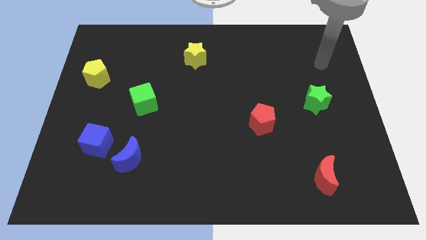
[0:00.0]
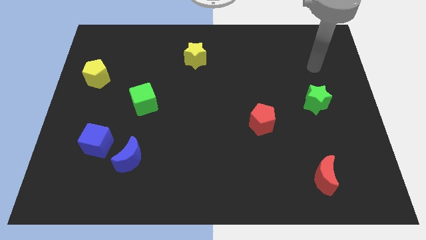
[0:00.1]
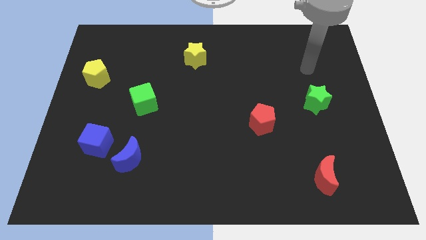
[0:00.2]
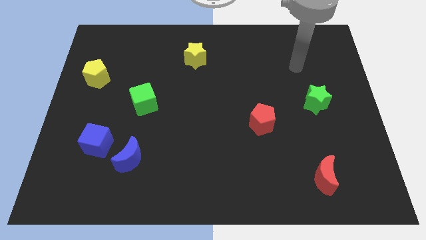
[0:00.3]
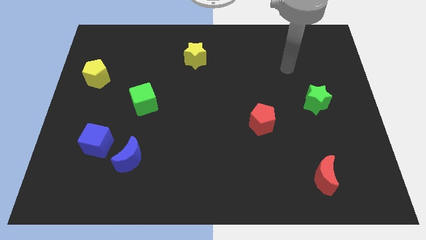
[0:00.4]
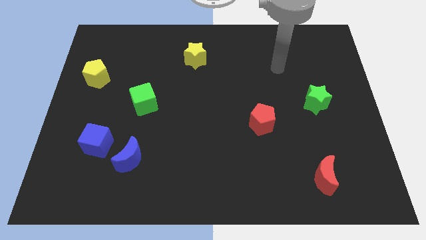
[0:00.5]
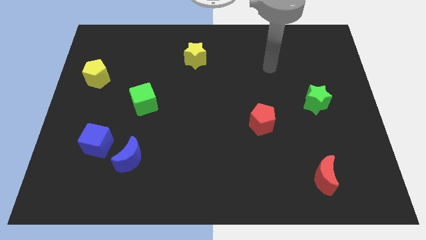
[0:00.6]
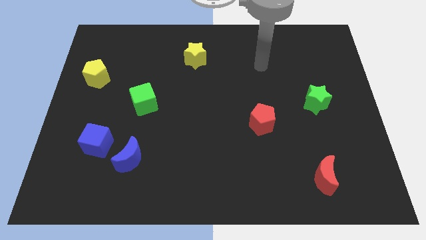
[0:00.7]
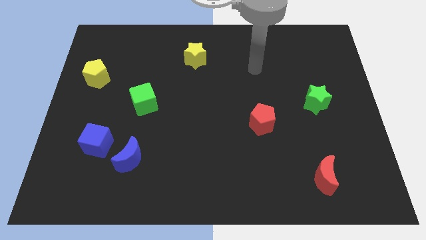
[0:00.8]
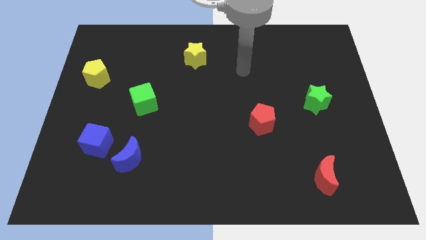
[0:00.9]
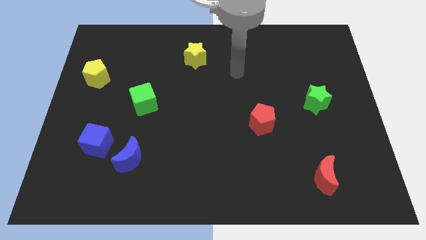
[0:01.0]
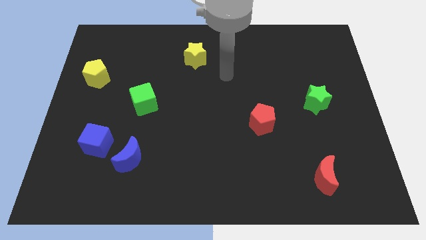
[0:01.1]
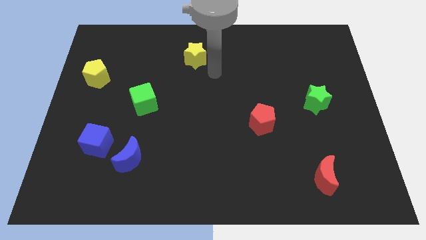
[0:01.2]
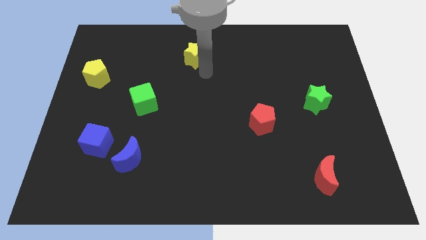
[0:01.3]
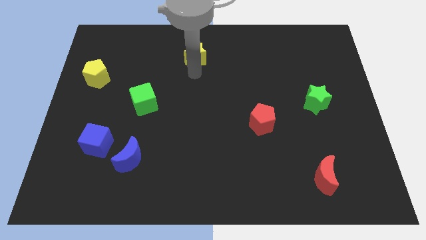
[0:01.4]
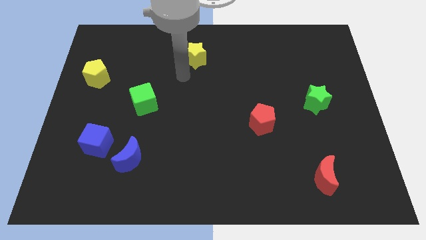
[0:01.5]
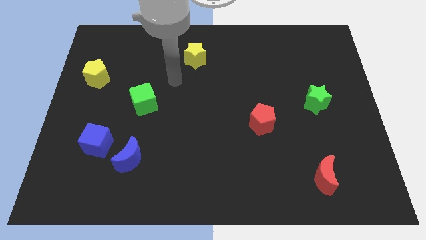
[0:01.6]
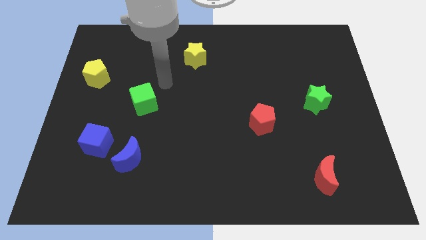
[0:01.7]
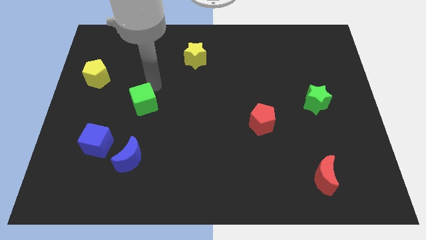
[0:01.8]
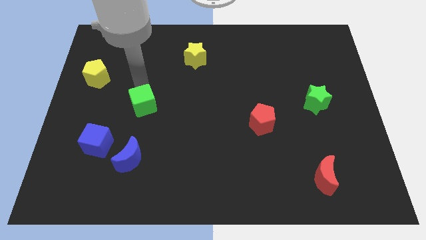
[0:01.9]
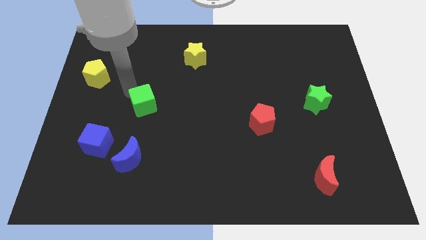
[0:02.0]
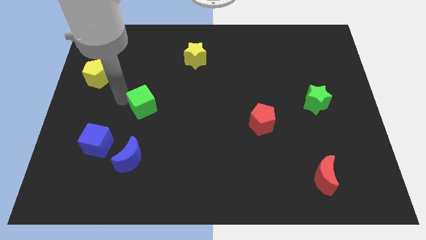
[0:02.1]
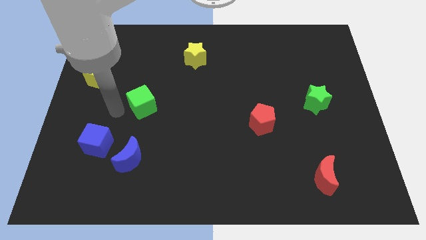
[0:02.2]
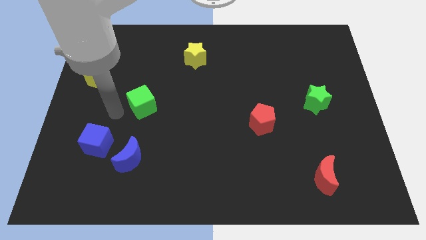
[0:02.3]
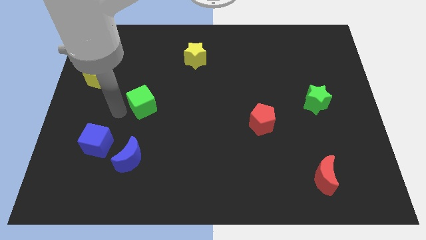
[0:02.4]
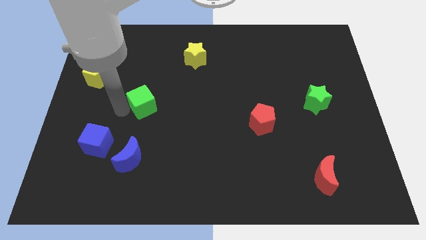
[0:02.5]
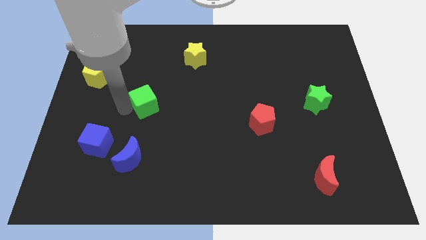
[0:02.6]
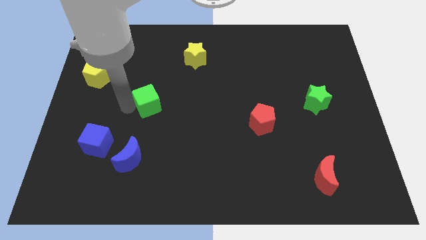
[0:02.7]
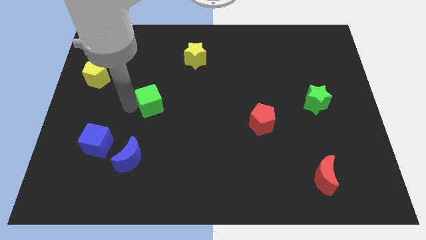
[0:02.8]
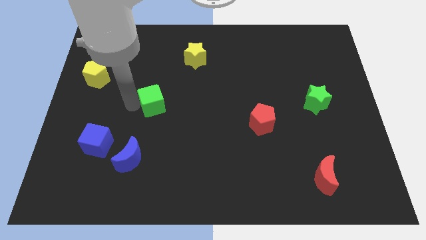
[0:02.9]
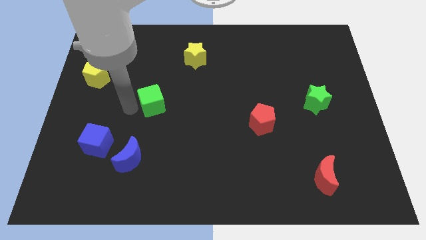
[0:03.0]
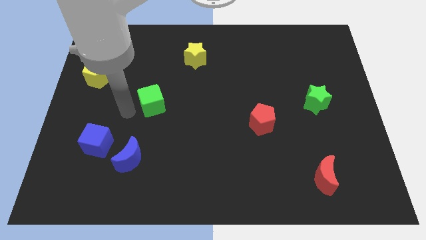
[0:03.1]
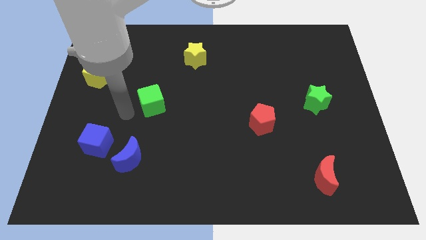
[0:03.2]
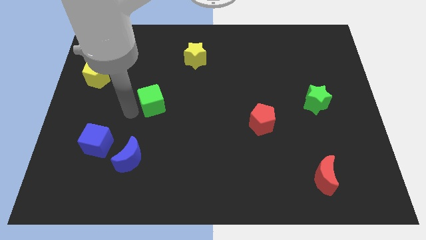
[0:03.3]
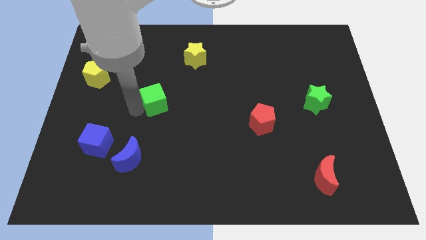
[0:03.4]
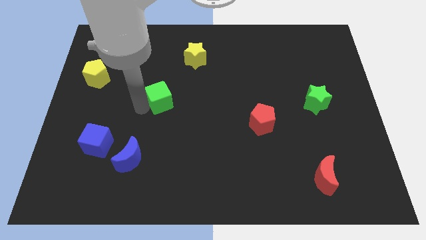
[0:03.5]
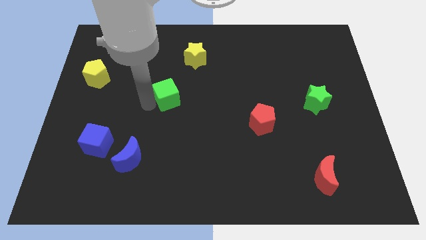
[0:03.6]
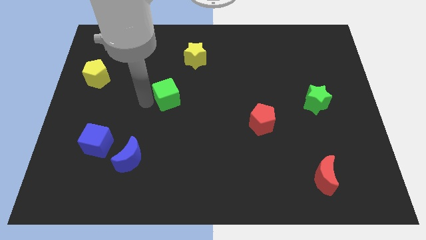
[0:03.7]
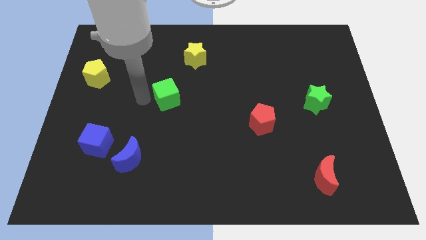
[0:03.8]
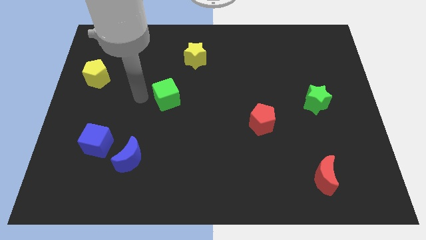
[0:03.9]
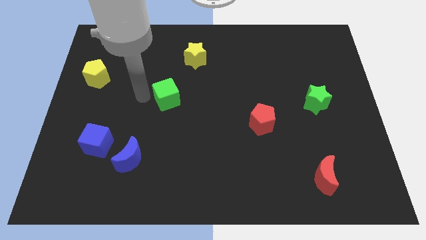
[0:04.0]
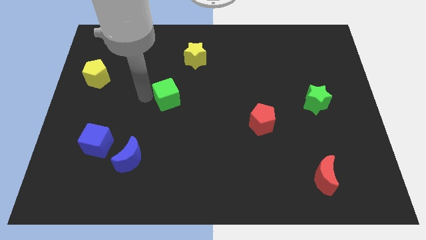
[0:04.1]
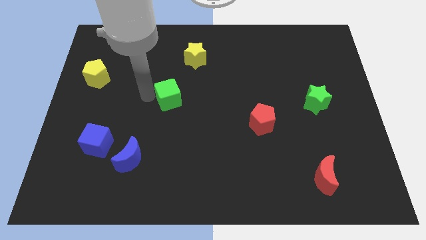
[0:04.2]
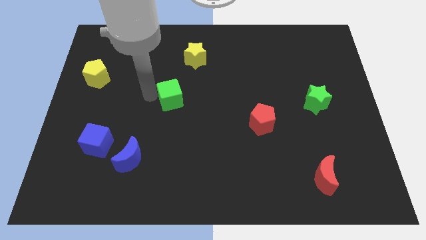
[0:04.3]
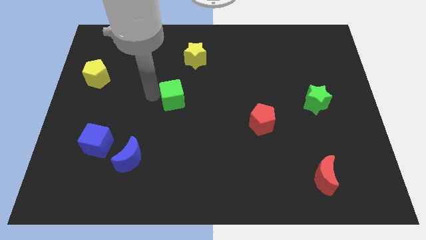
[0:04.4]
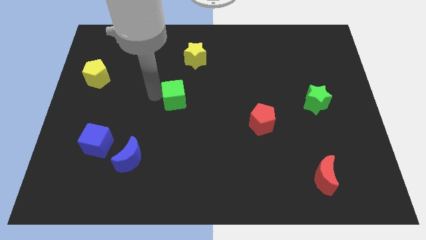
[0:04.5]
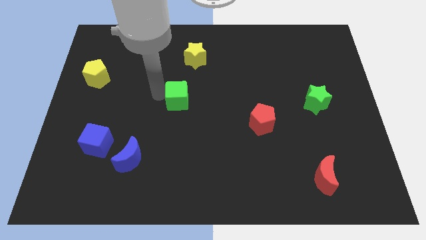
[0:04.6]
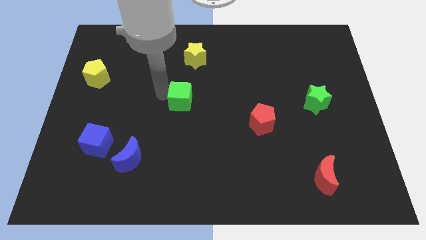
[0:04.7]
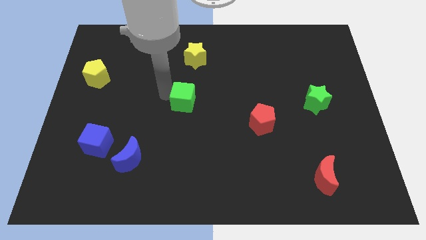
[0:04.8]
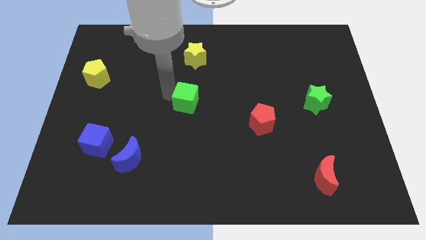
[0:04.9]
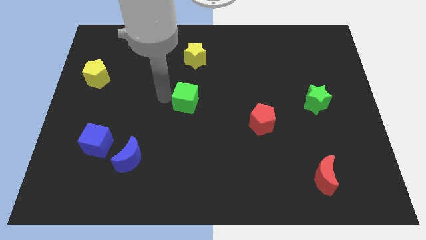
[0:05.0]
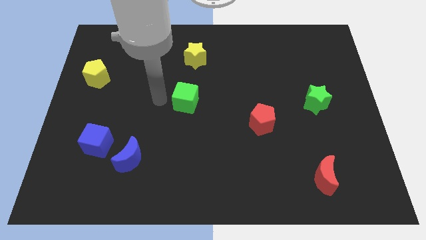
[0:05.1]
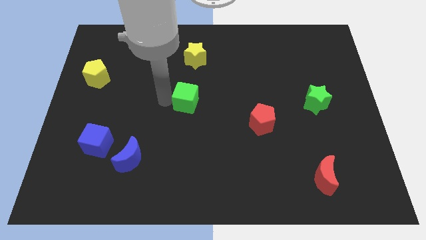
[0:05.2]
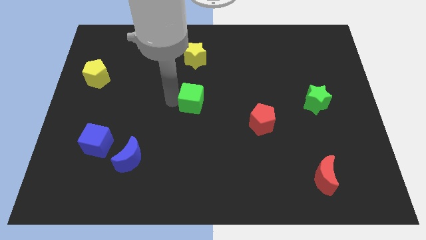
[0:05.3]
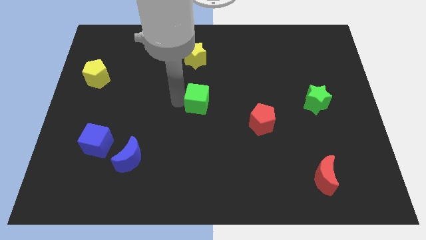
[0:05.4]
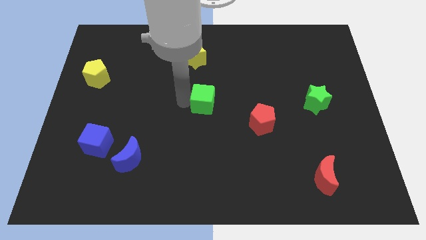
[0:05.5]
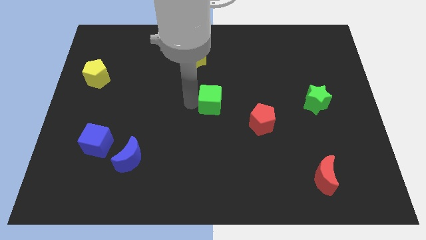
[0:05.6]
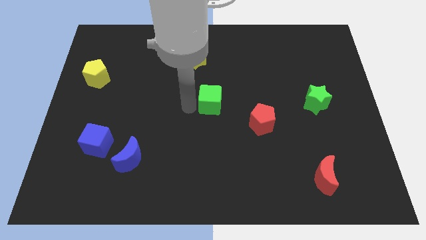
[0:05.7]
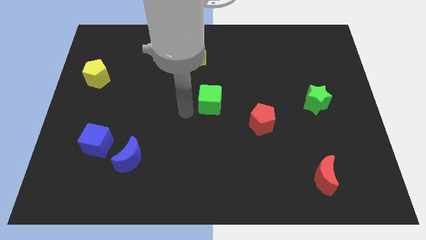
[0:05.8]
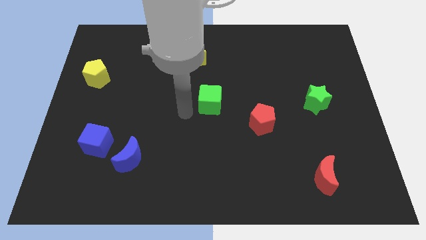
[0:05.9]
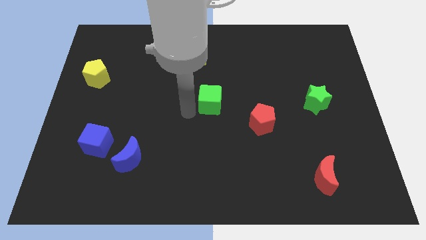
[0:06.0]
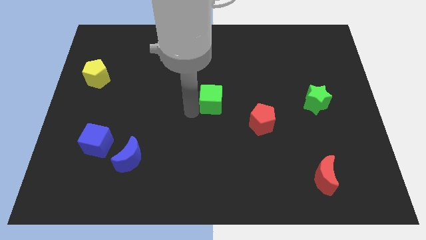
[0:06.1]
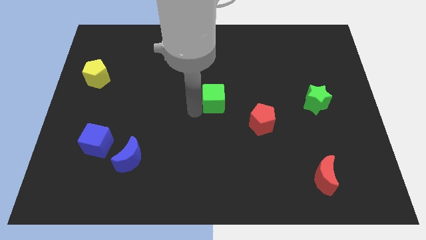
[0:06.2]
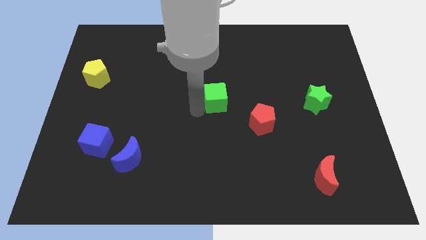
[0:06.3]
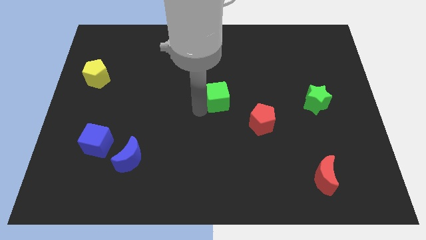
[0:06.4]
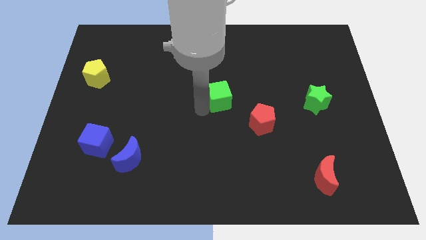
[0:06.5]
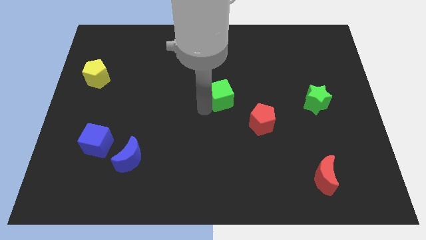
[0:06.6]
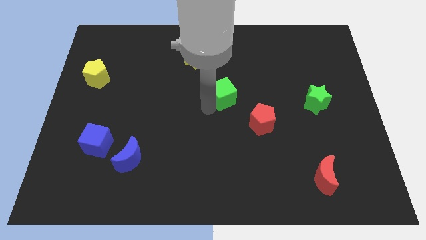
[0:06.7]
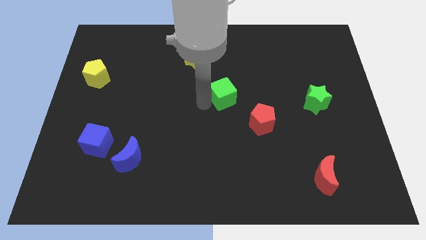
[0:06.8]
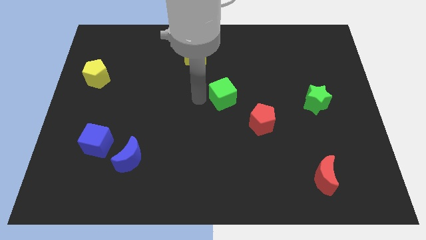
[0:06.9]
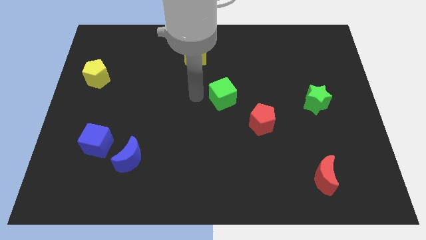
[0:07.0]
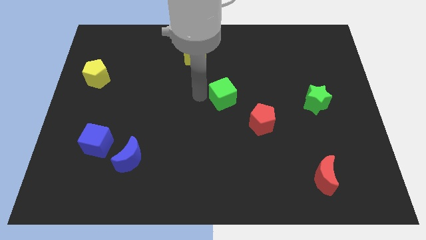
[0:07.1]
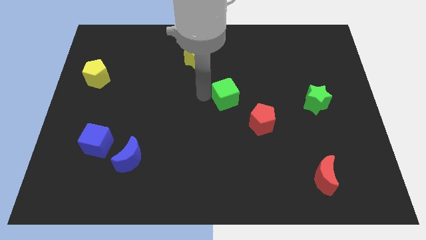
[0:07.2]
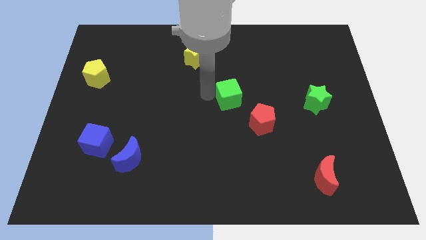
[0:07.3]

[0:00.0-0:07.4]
slide the green cube to the right

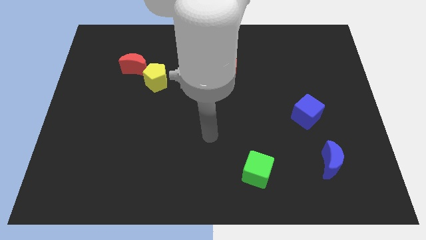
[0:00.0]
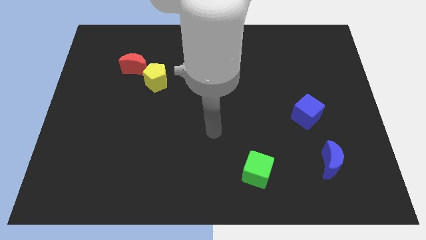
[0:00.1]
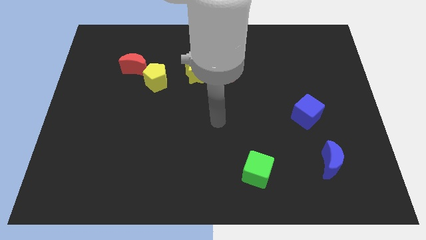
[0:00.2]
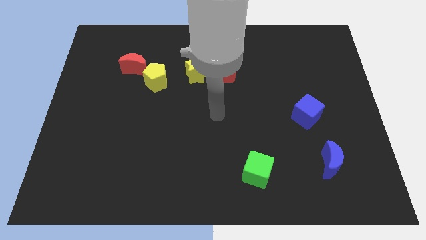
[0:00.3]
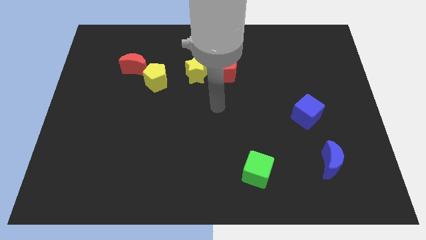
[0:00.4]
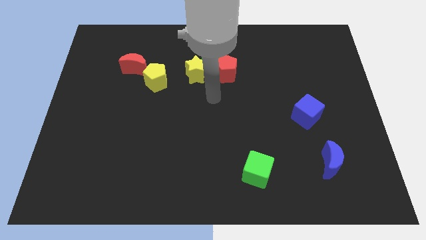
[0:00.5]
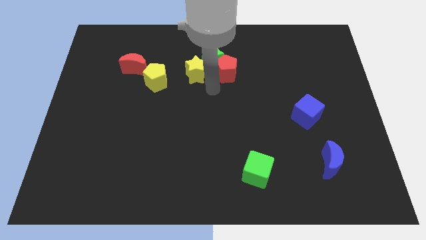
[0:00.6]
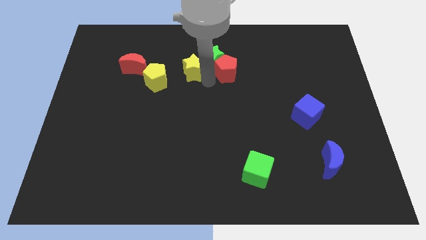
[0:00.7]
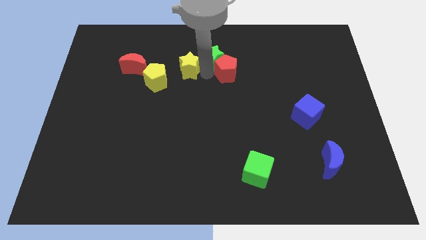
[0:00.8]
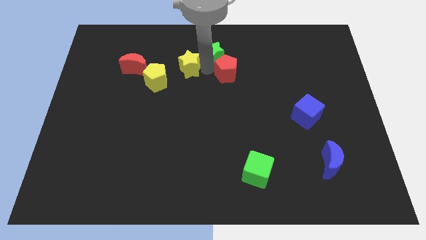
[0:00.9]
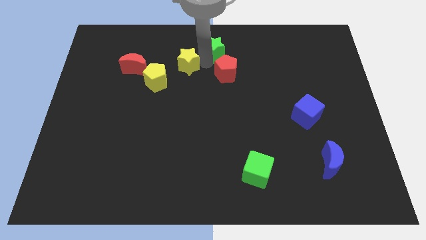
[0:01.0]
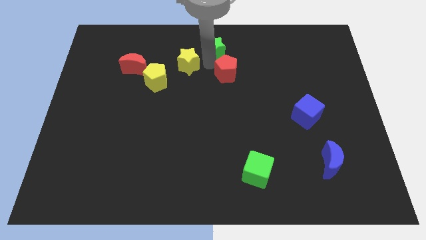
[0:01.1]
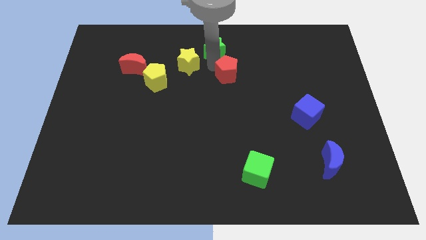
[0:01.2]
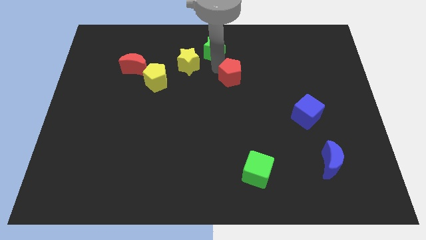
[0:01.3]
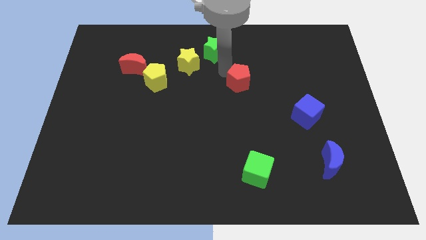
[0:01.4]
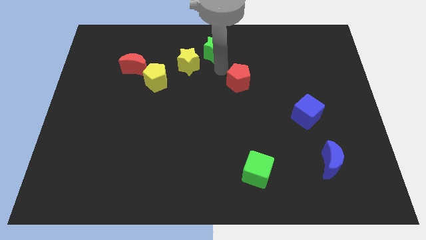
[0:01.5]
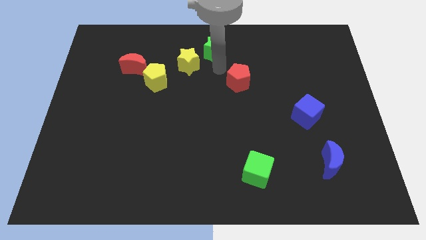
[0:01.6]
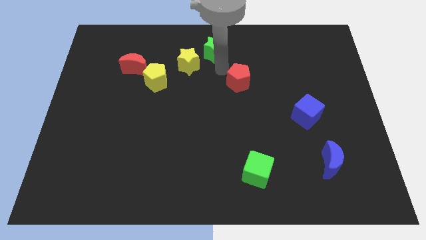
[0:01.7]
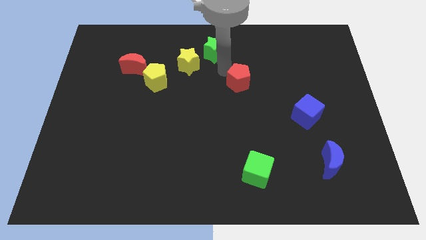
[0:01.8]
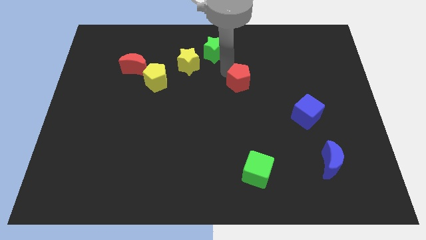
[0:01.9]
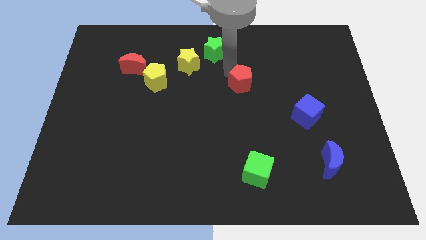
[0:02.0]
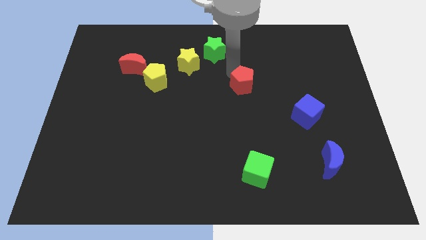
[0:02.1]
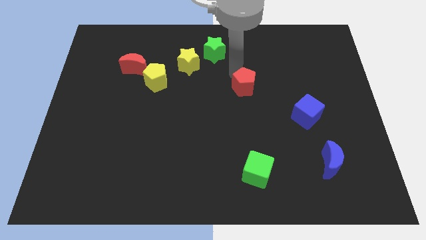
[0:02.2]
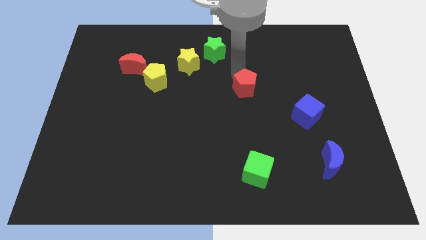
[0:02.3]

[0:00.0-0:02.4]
slide the red pentagon diagonally downwards and right slightly
